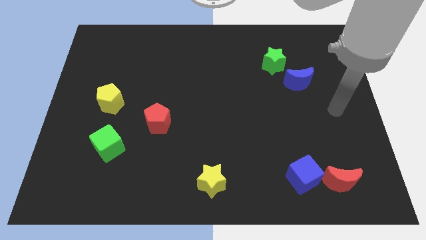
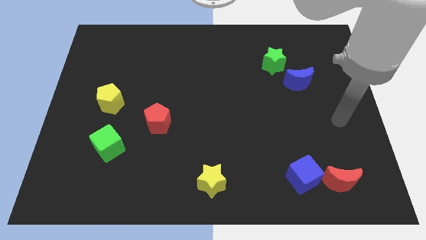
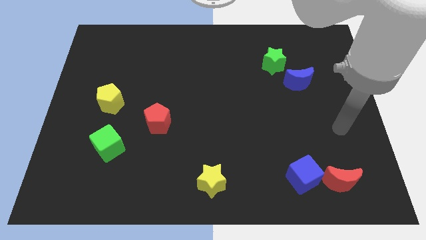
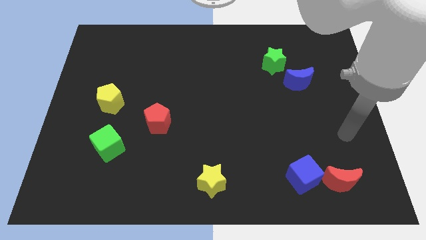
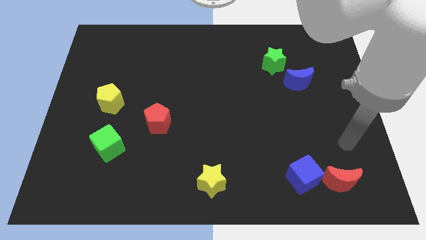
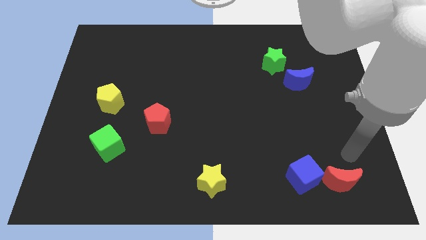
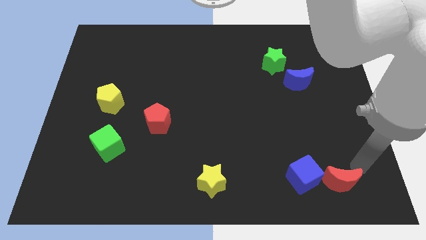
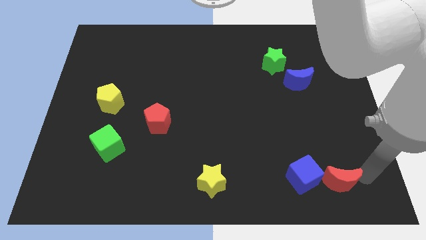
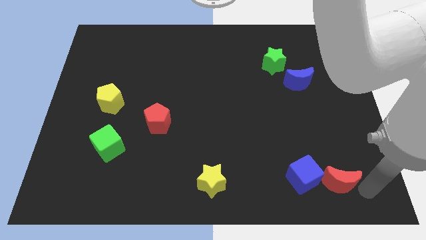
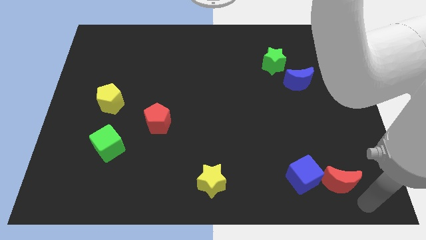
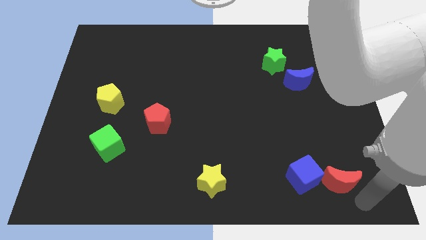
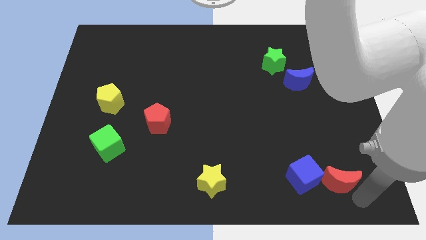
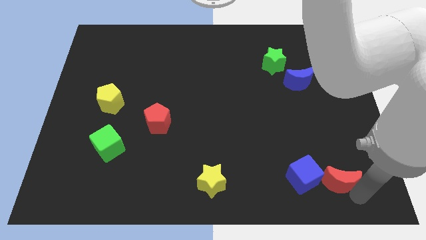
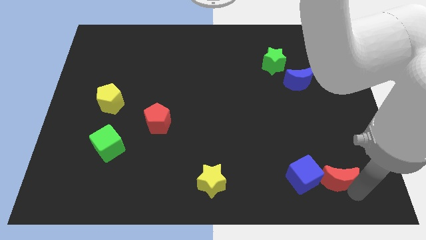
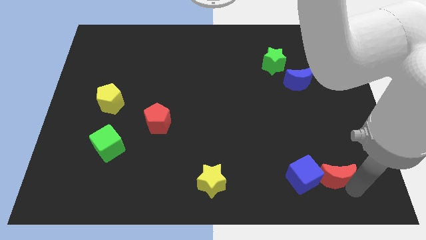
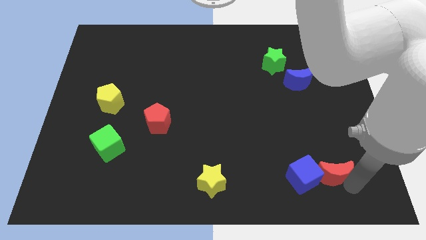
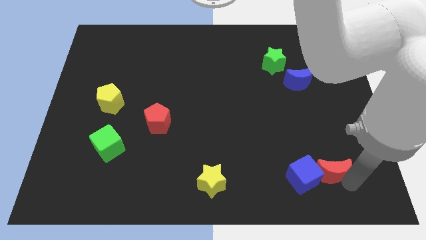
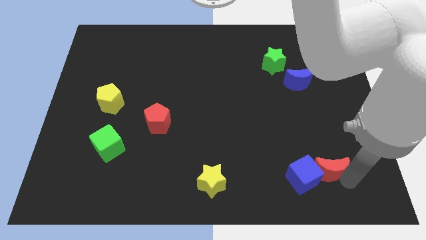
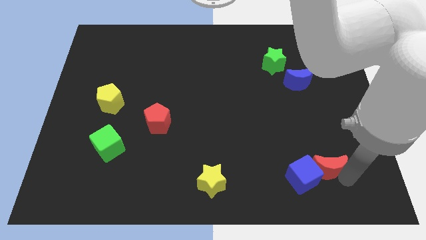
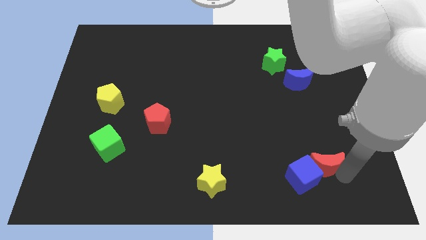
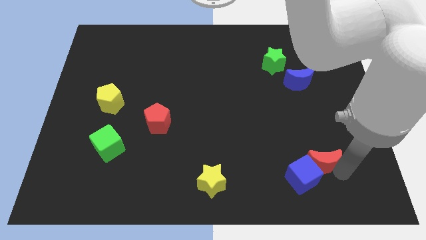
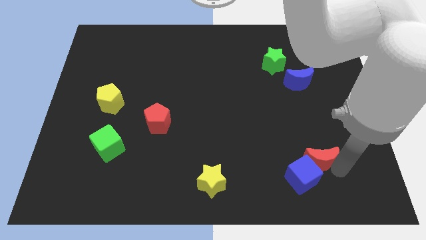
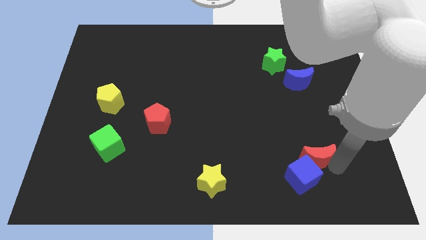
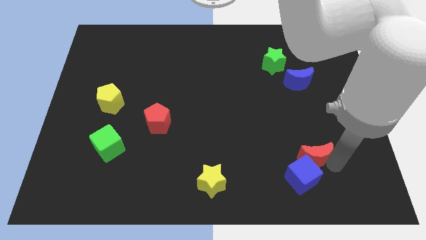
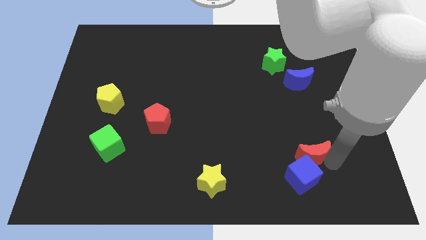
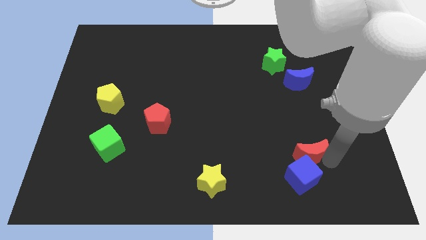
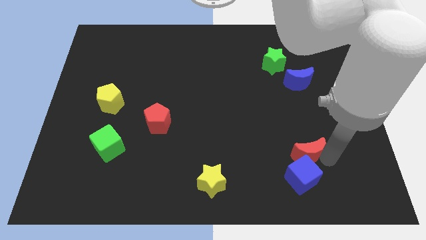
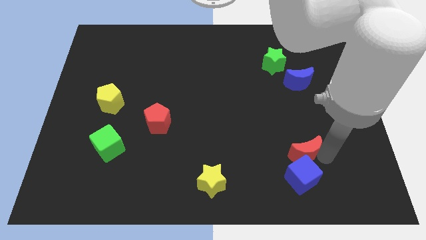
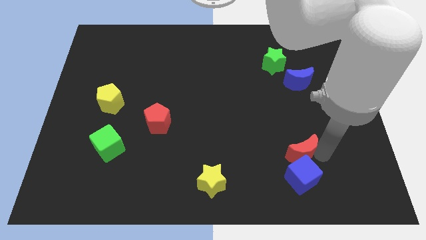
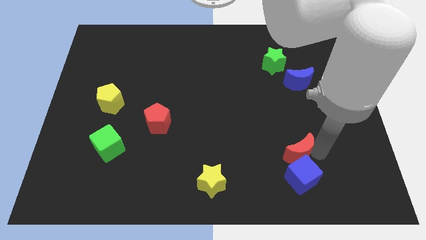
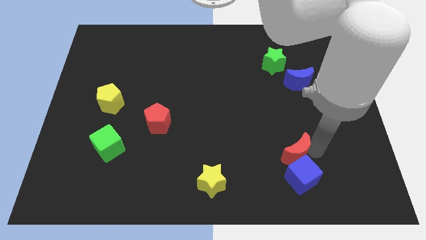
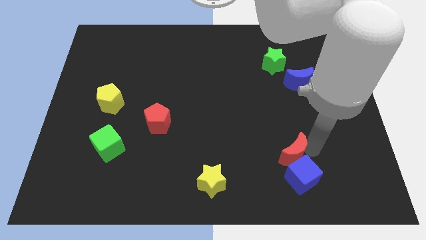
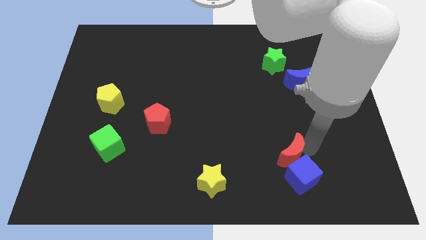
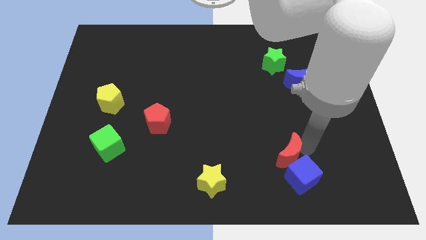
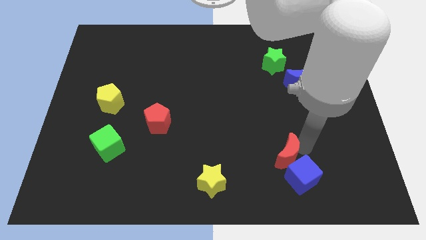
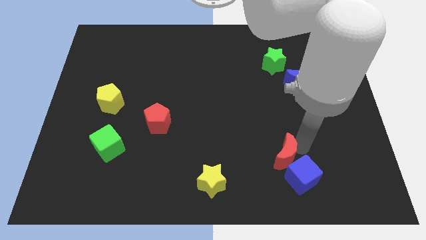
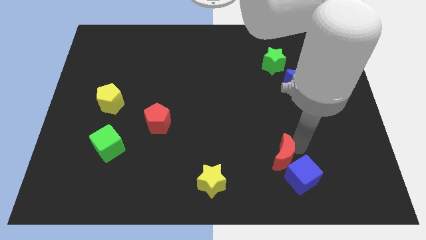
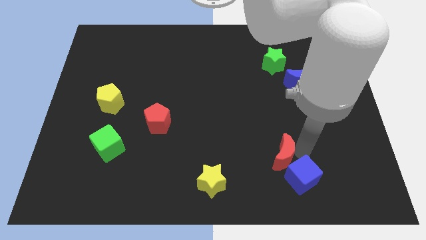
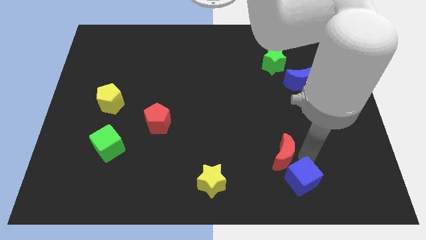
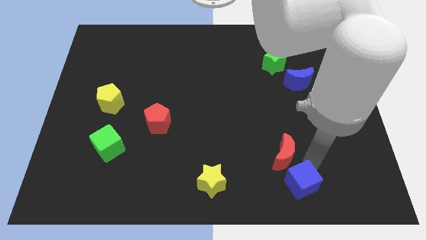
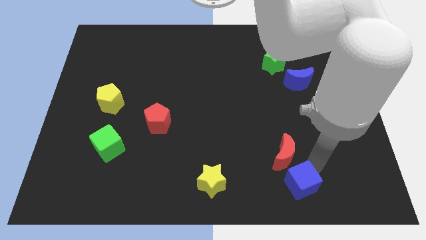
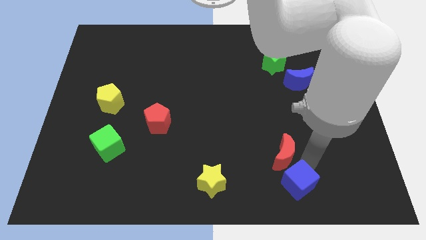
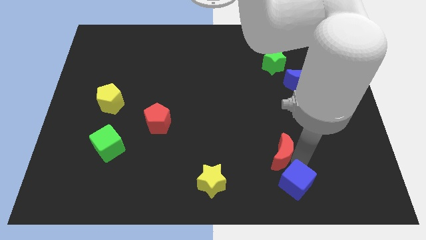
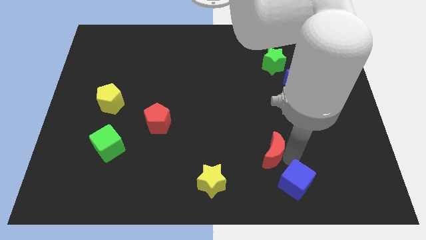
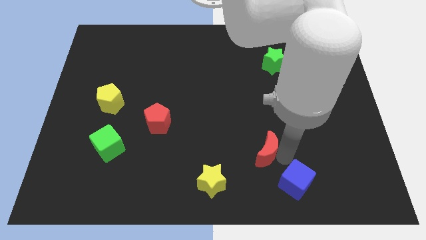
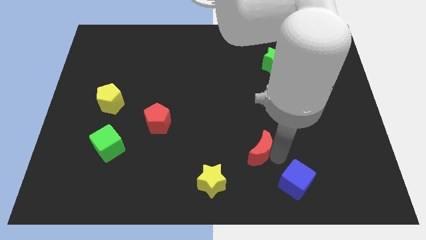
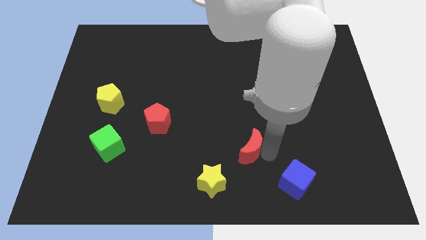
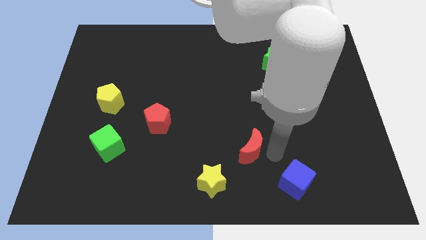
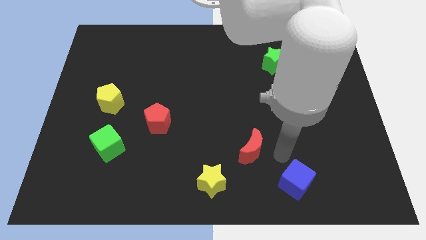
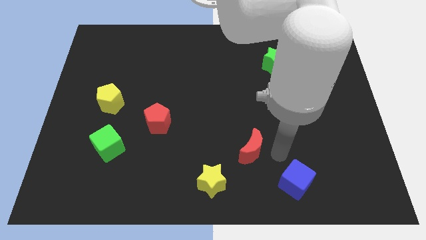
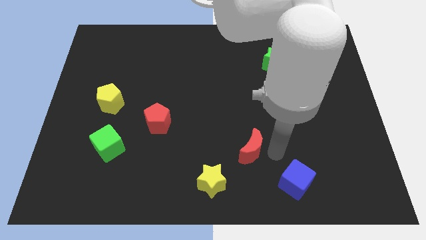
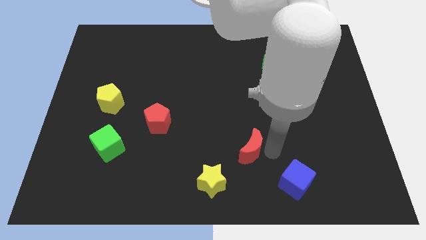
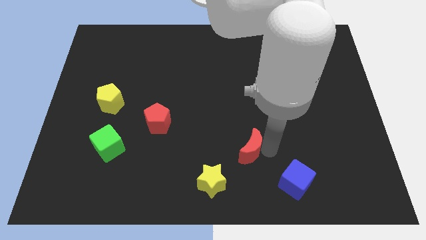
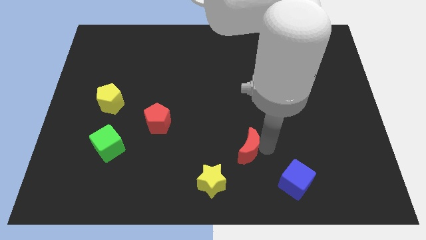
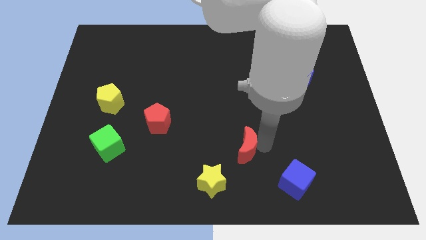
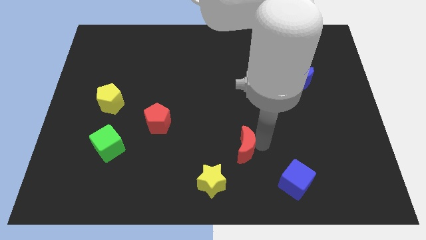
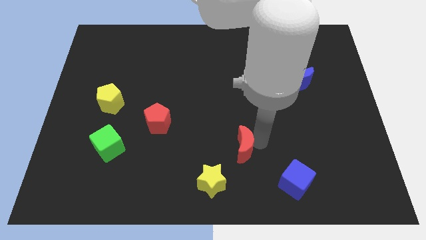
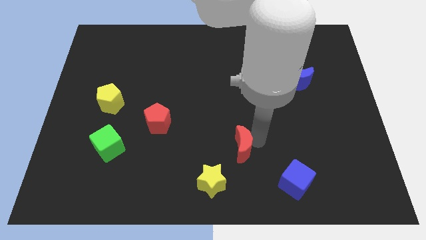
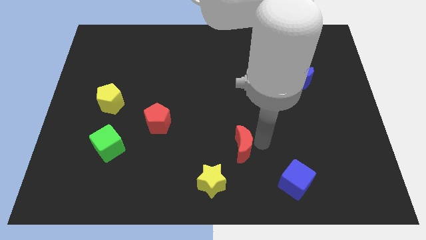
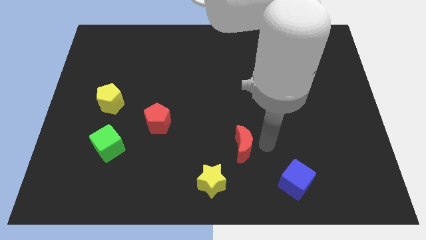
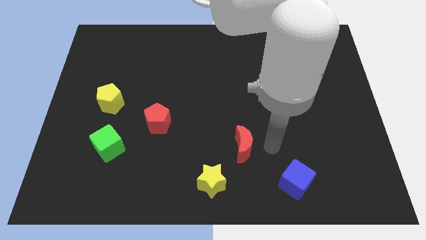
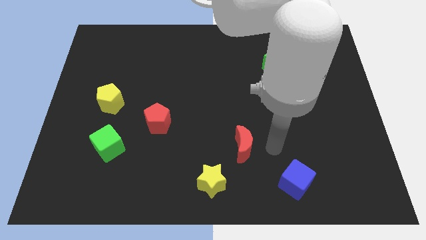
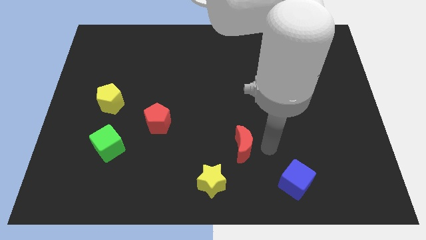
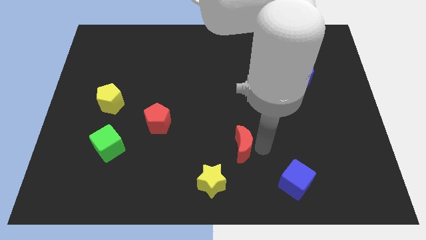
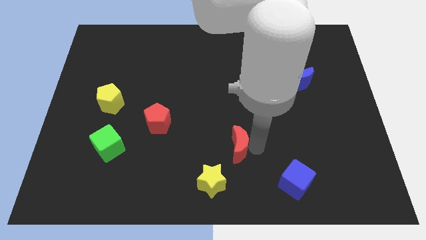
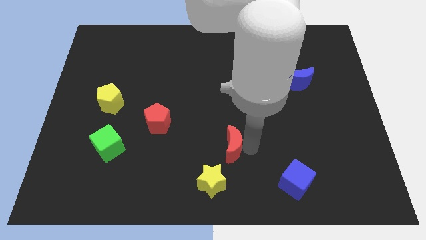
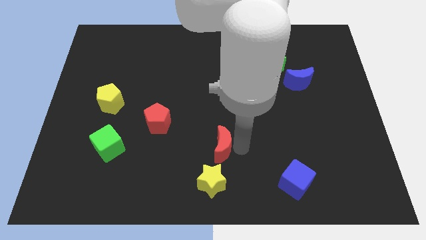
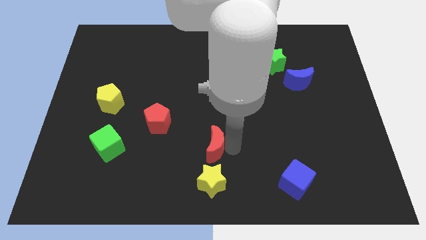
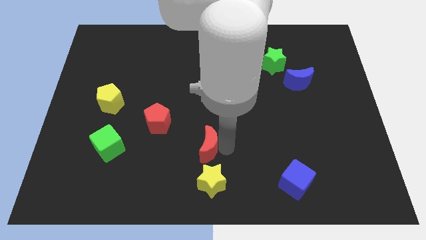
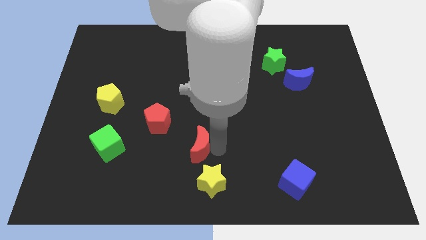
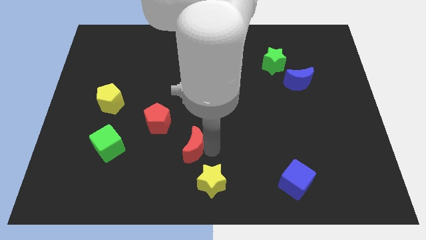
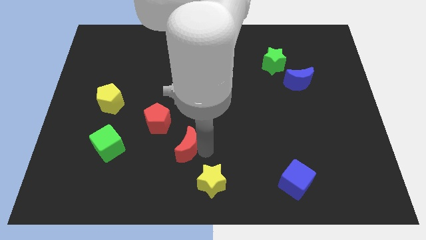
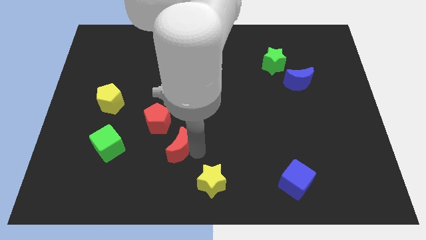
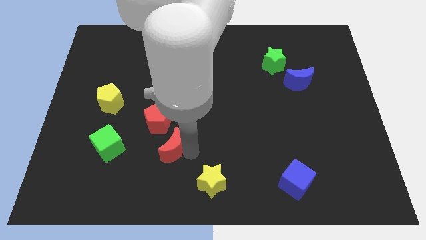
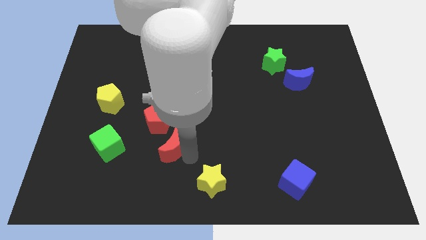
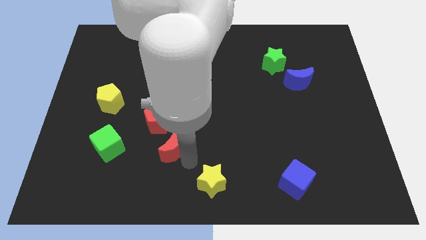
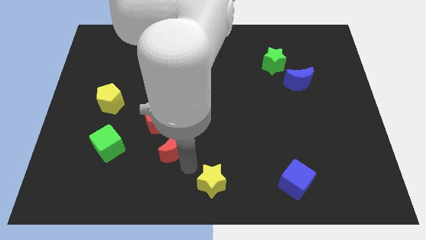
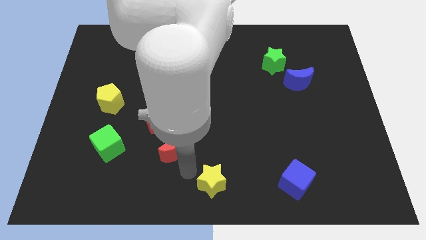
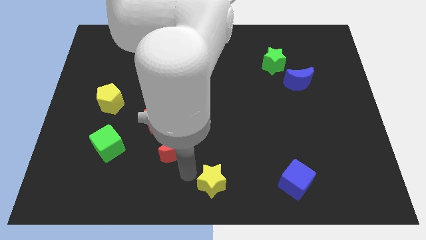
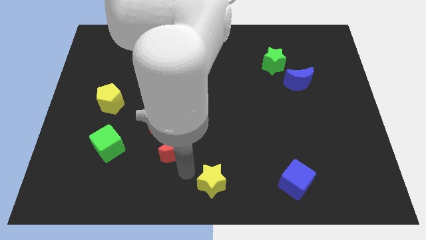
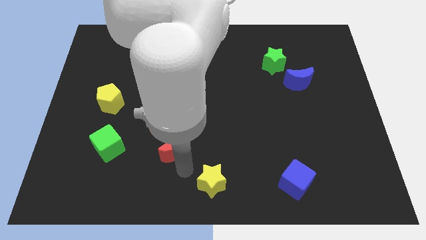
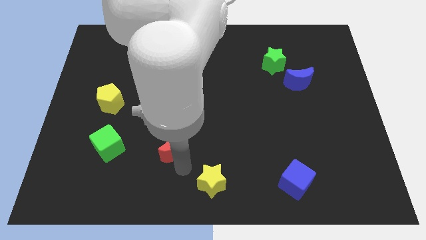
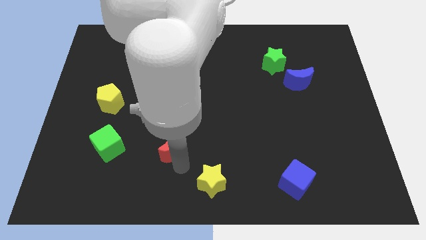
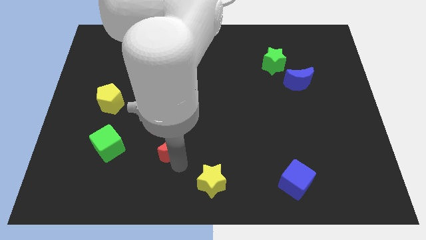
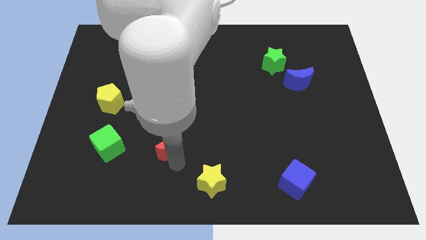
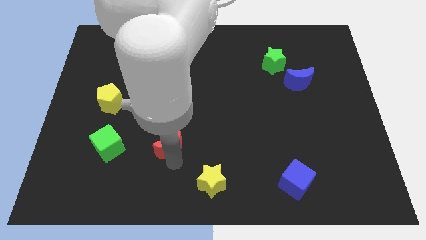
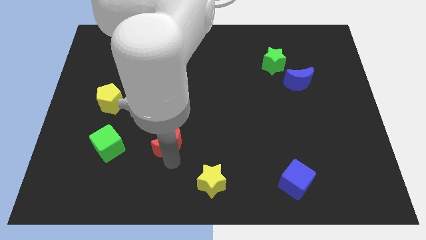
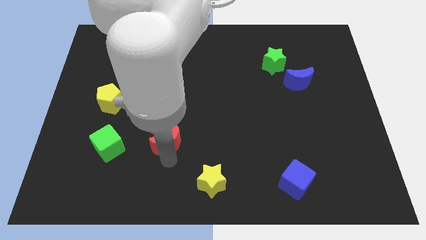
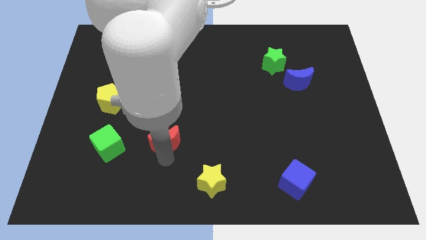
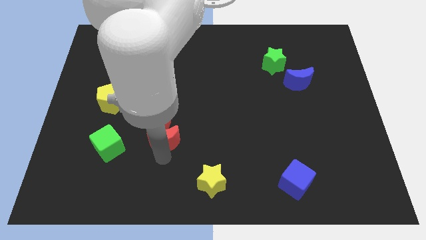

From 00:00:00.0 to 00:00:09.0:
move the red moon next to the red pentagon
